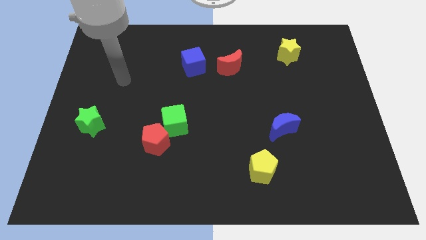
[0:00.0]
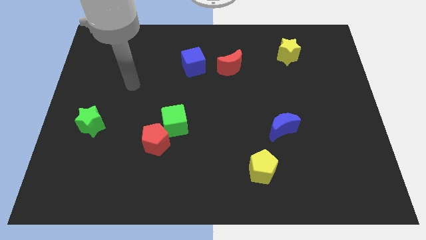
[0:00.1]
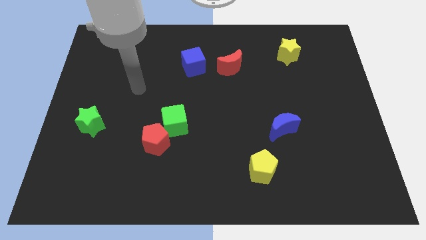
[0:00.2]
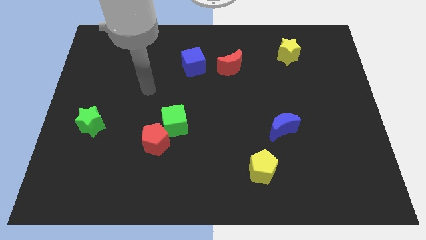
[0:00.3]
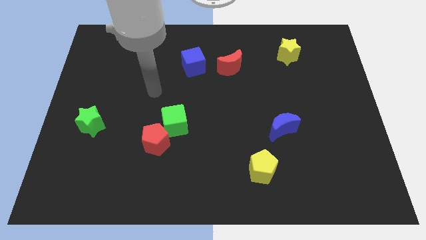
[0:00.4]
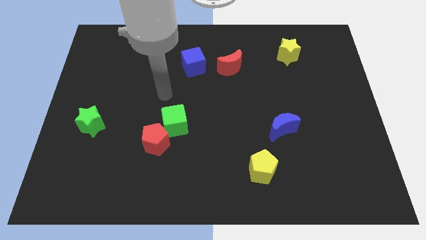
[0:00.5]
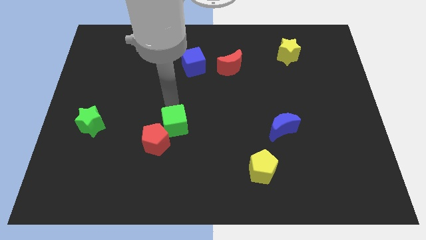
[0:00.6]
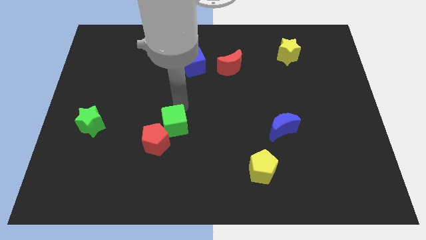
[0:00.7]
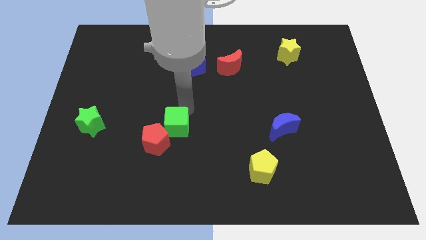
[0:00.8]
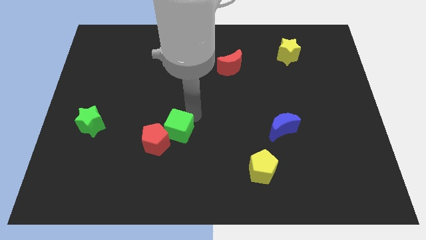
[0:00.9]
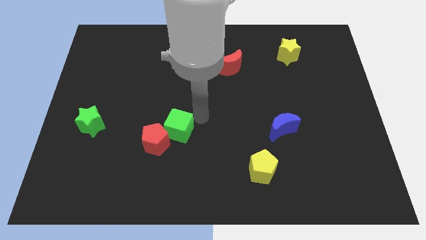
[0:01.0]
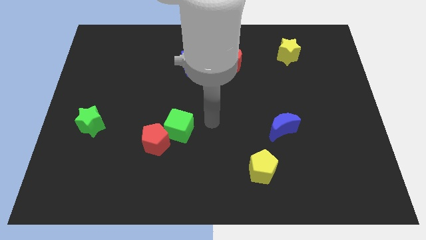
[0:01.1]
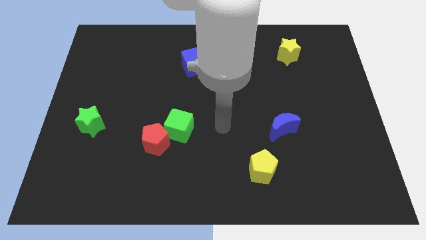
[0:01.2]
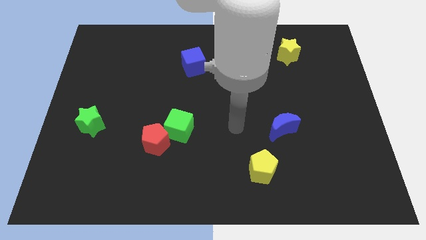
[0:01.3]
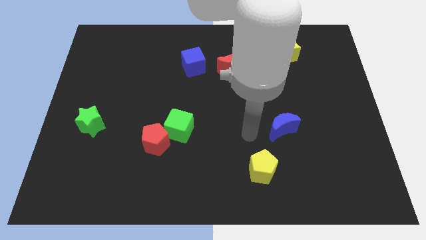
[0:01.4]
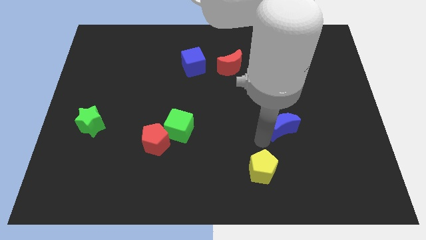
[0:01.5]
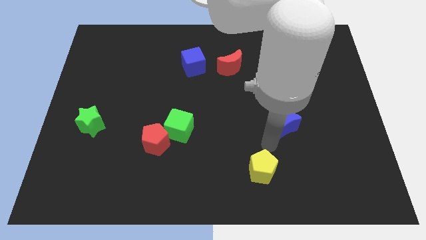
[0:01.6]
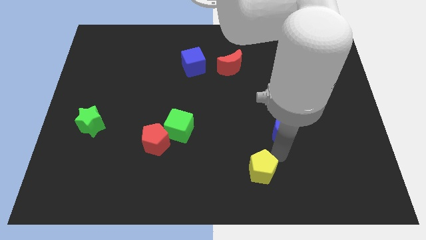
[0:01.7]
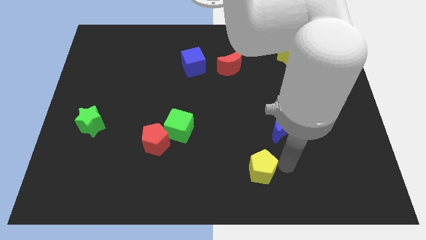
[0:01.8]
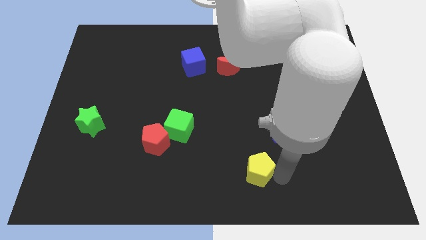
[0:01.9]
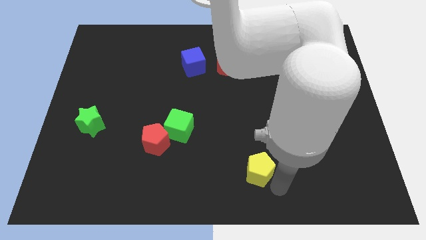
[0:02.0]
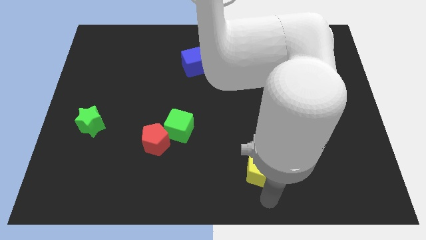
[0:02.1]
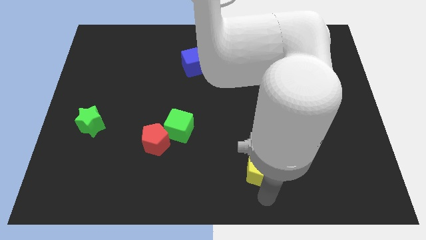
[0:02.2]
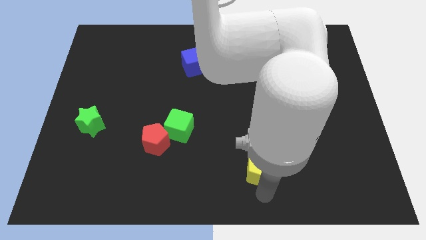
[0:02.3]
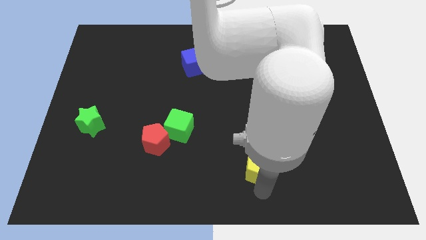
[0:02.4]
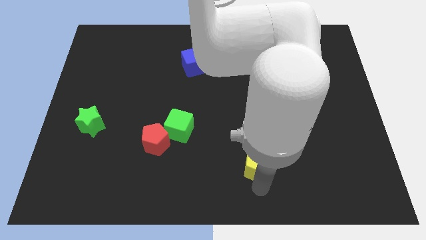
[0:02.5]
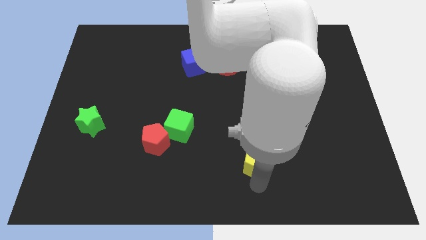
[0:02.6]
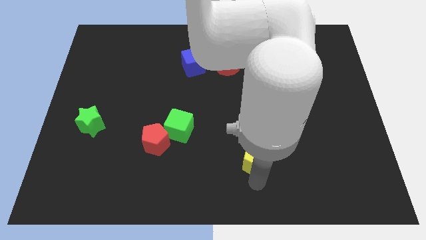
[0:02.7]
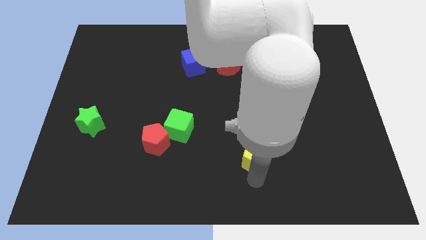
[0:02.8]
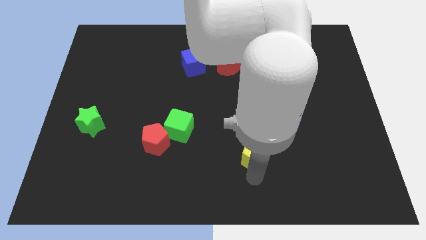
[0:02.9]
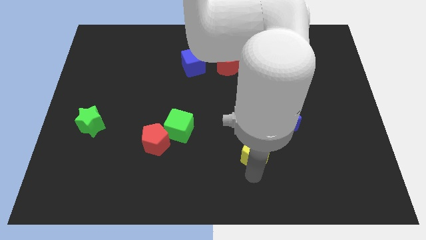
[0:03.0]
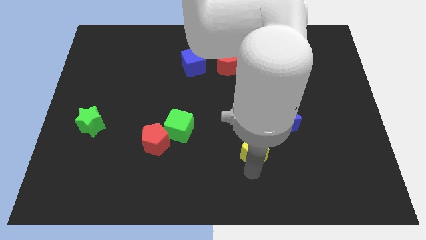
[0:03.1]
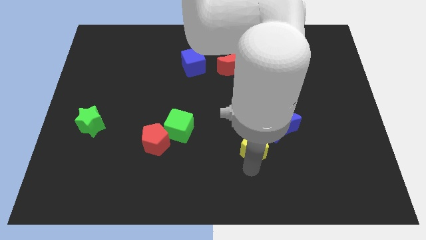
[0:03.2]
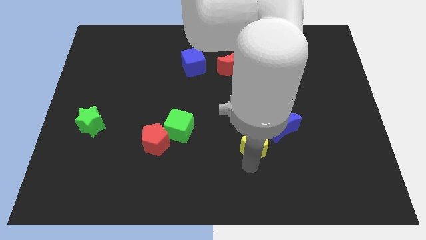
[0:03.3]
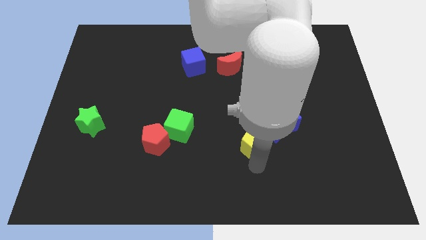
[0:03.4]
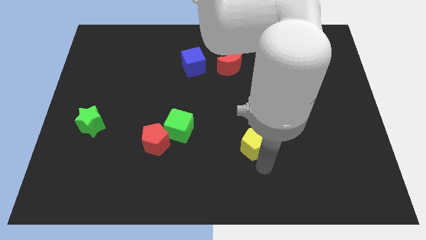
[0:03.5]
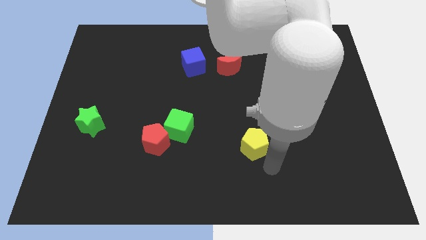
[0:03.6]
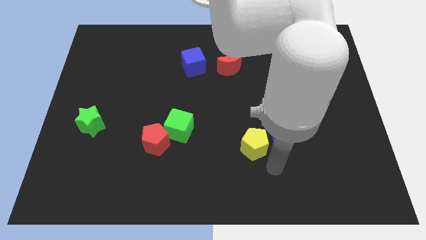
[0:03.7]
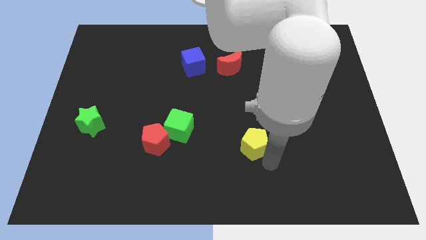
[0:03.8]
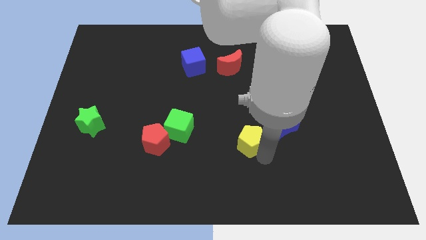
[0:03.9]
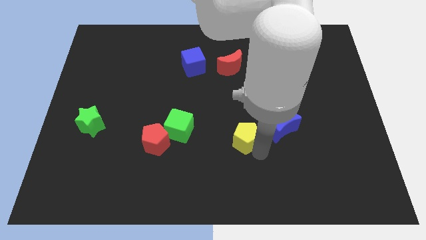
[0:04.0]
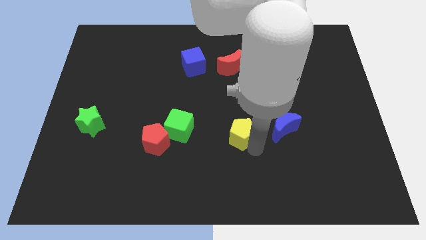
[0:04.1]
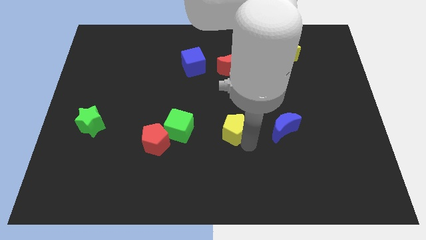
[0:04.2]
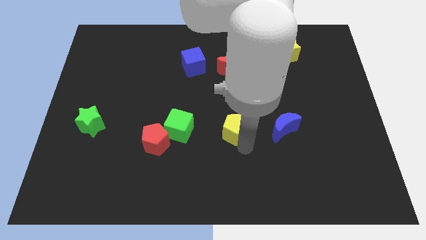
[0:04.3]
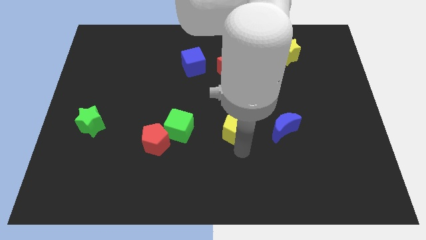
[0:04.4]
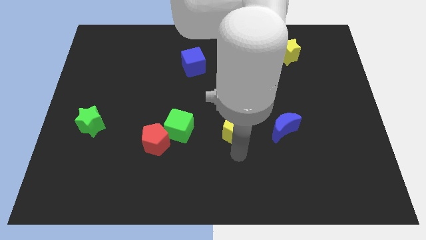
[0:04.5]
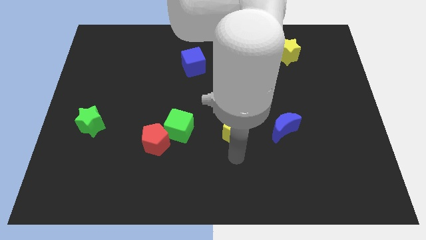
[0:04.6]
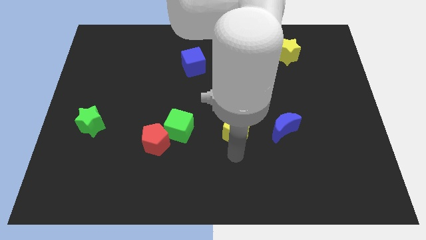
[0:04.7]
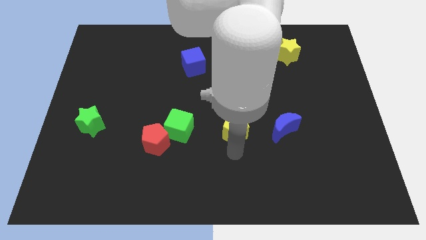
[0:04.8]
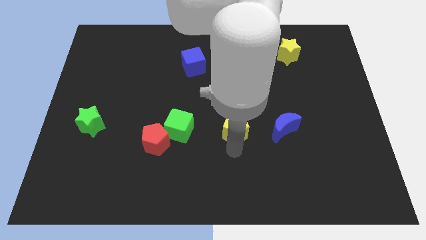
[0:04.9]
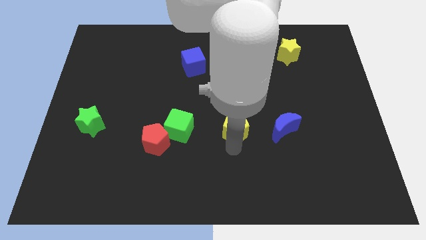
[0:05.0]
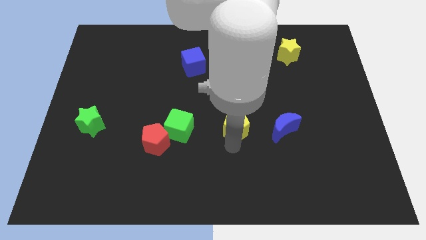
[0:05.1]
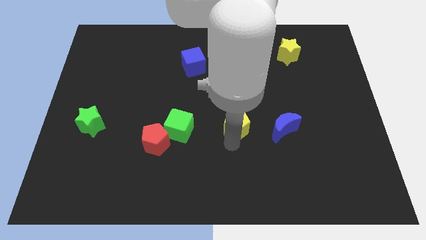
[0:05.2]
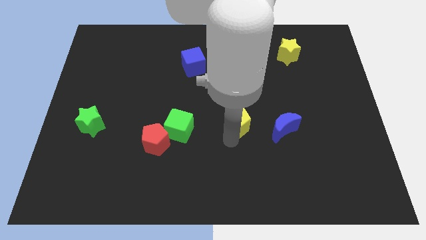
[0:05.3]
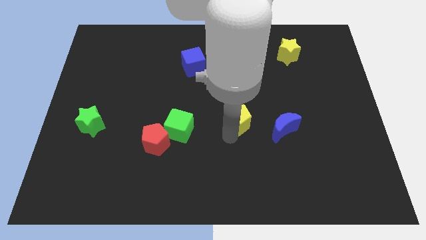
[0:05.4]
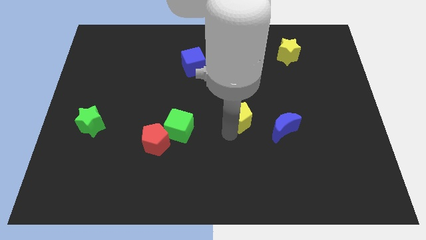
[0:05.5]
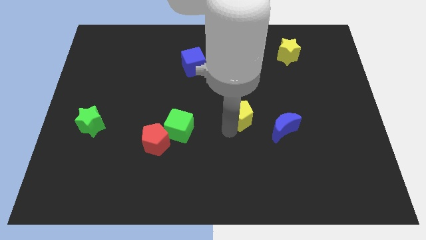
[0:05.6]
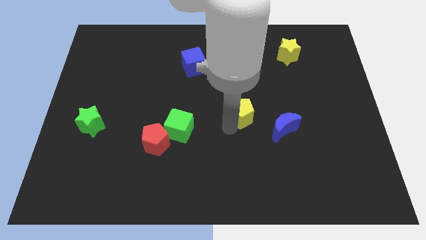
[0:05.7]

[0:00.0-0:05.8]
put the yellow pentagon to the bottom of the red moon

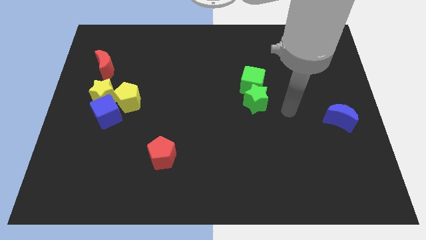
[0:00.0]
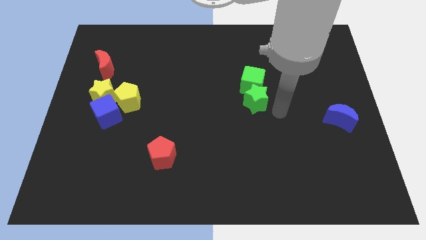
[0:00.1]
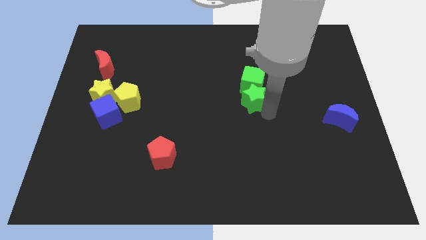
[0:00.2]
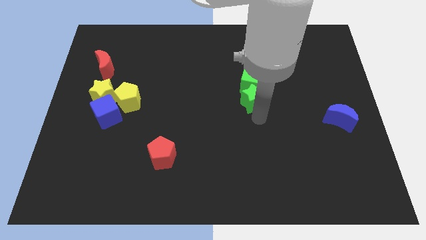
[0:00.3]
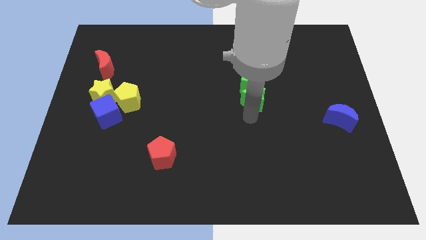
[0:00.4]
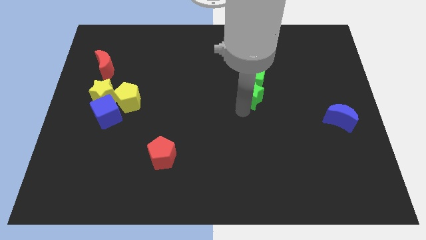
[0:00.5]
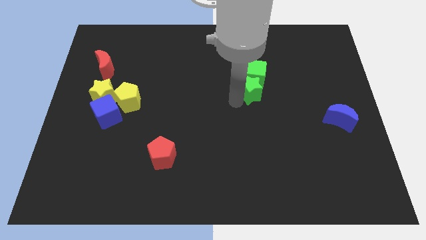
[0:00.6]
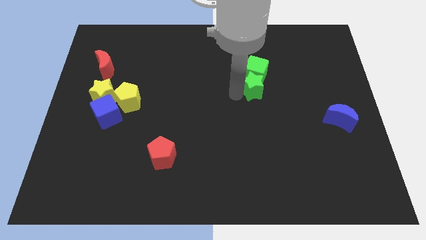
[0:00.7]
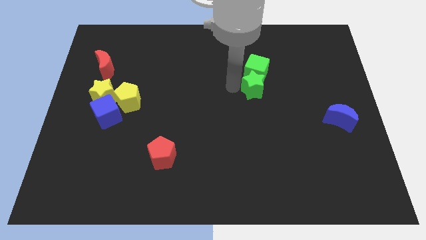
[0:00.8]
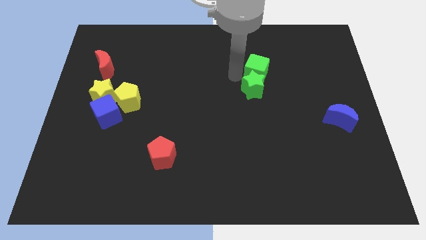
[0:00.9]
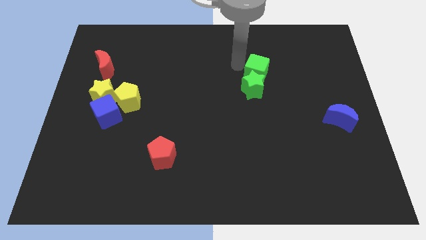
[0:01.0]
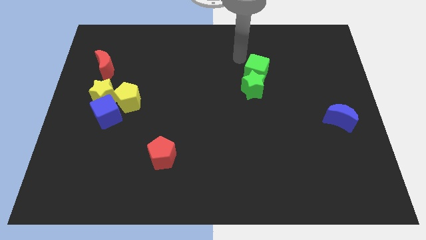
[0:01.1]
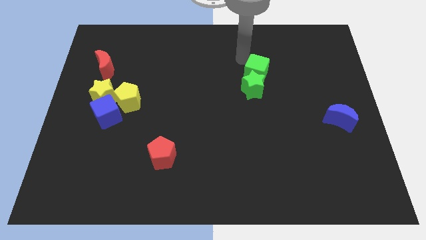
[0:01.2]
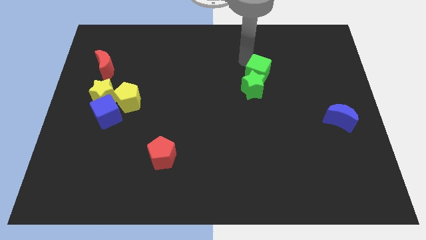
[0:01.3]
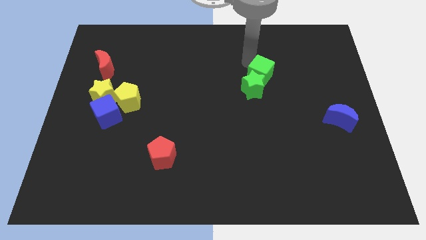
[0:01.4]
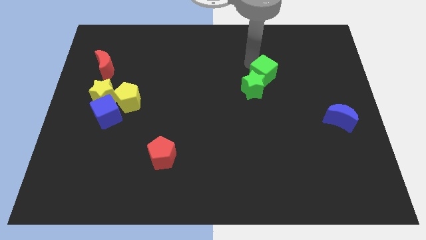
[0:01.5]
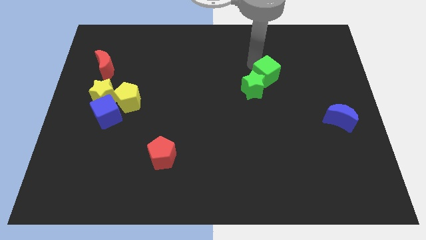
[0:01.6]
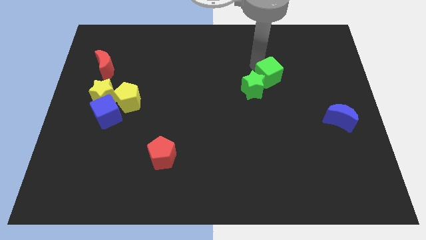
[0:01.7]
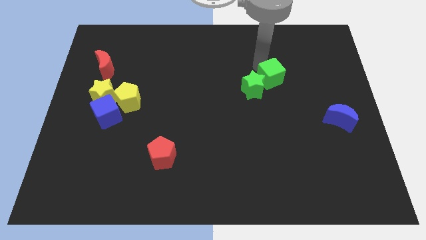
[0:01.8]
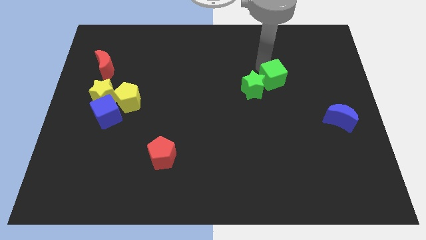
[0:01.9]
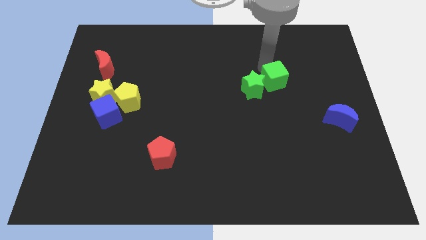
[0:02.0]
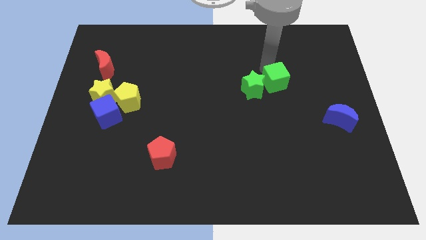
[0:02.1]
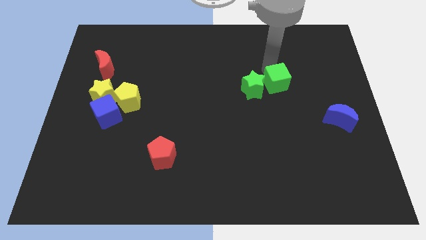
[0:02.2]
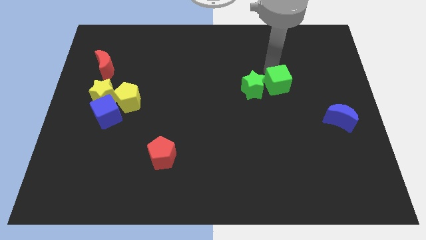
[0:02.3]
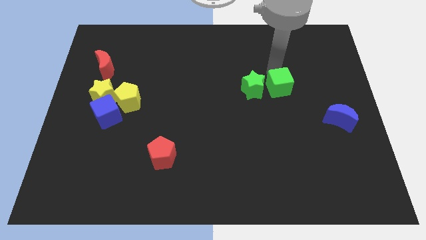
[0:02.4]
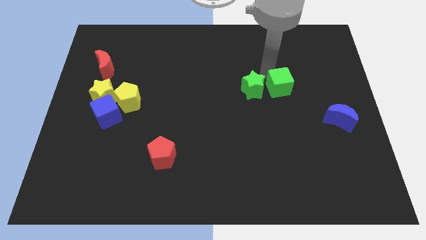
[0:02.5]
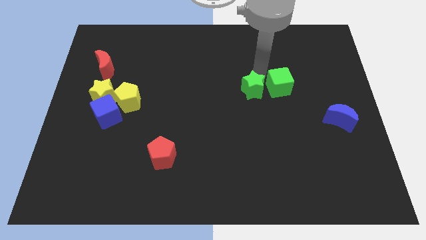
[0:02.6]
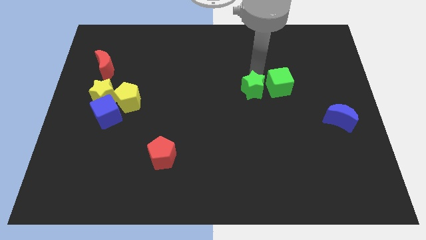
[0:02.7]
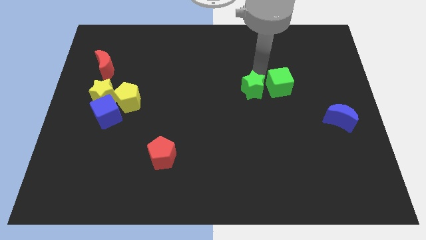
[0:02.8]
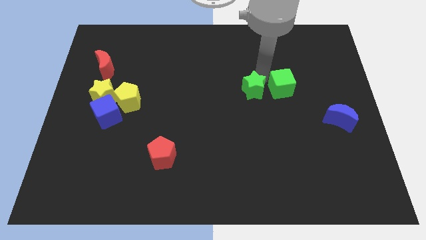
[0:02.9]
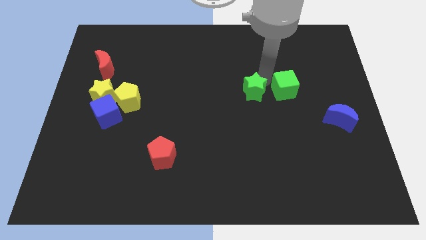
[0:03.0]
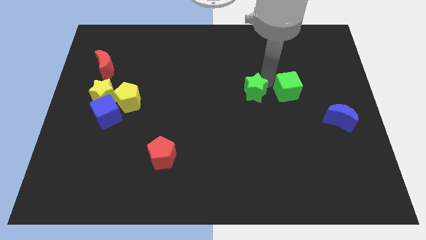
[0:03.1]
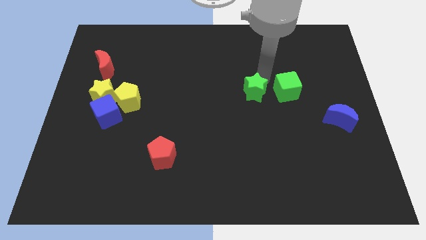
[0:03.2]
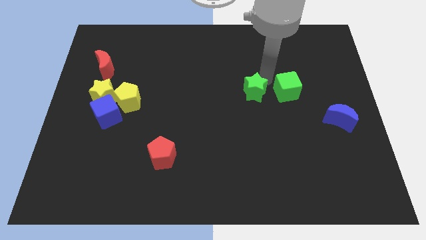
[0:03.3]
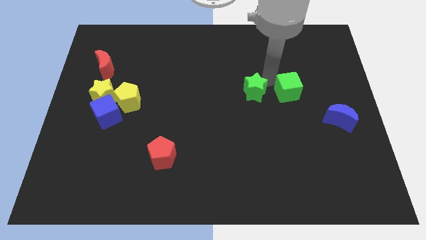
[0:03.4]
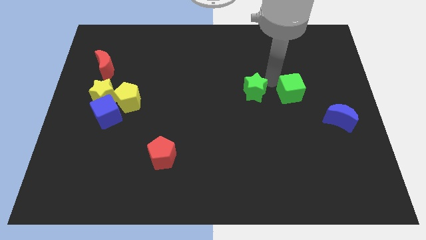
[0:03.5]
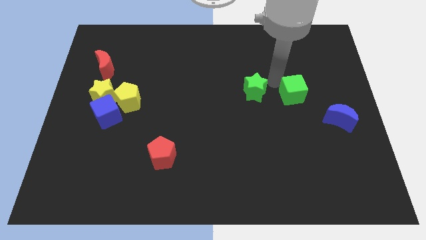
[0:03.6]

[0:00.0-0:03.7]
move the green cube diagonally up and to the left of the blue moon
